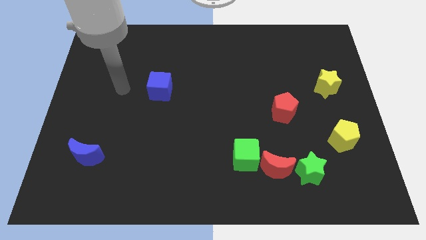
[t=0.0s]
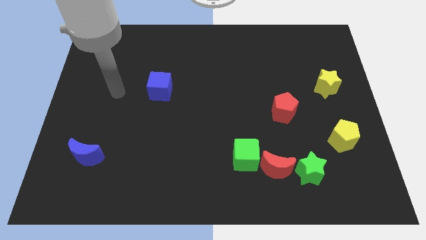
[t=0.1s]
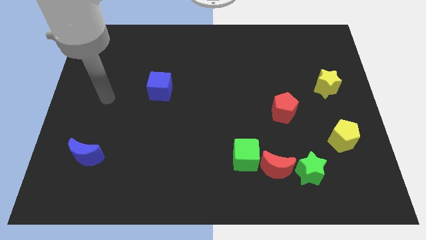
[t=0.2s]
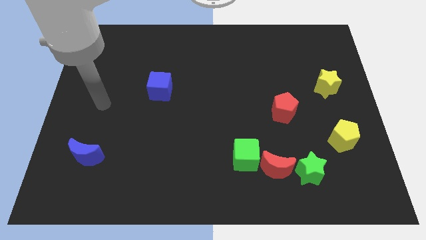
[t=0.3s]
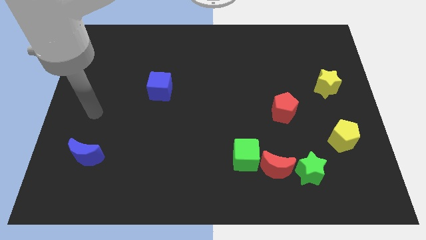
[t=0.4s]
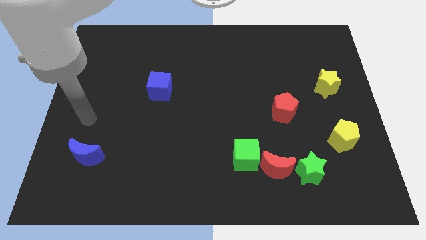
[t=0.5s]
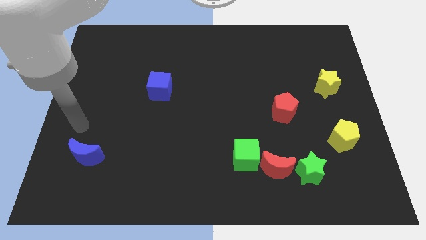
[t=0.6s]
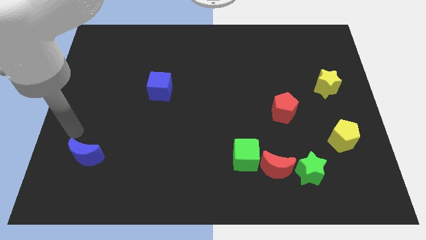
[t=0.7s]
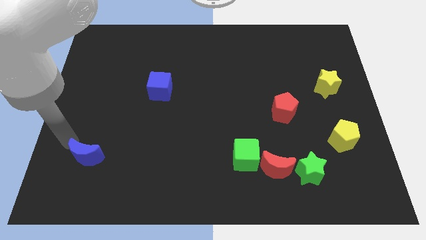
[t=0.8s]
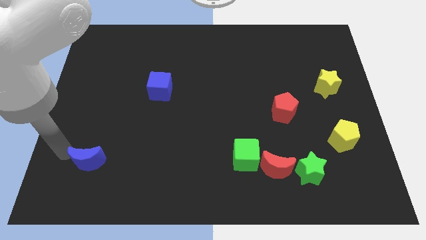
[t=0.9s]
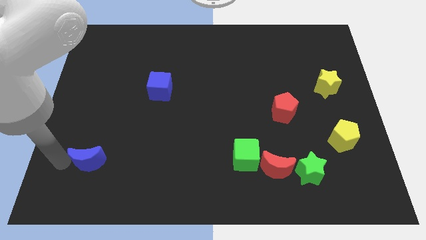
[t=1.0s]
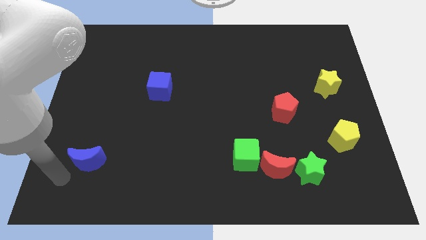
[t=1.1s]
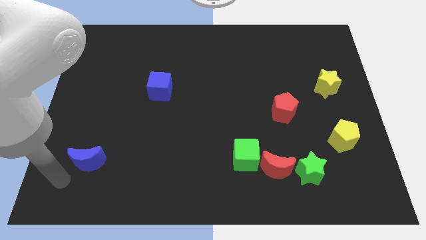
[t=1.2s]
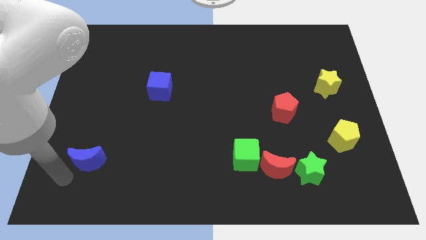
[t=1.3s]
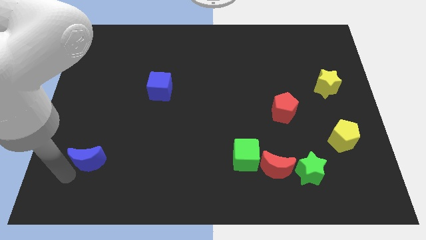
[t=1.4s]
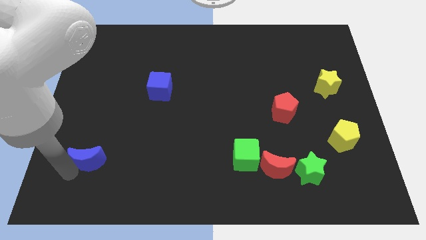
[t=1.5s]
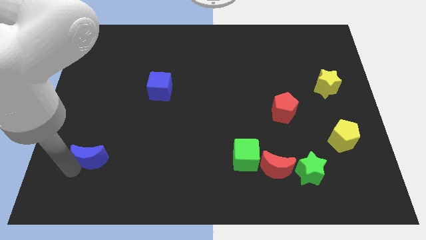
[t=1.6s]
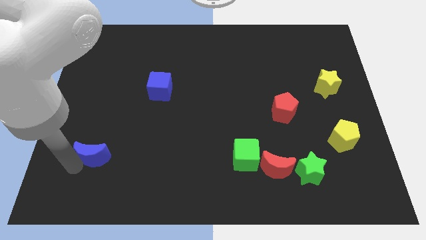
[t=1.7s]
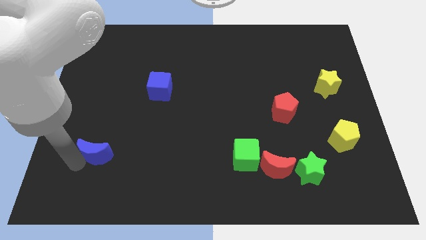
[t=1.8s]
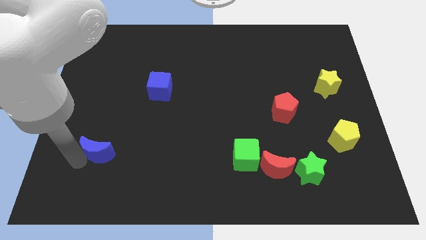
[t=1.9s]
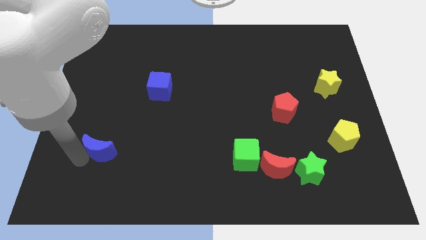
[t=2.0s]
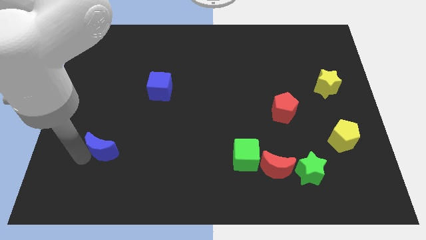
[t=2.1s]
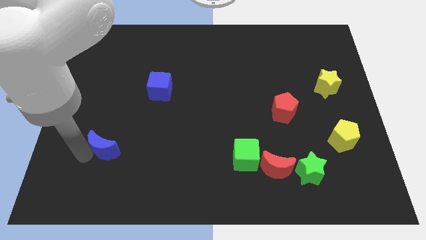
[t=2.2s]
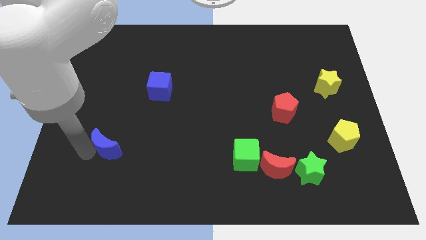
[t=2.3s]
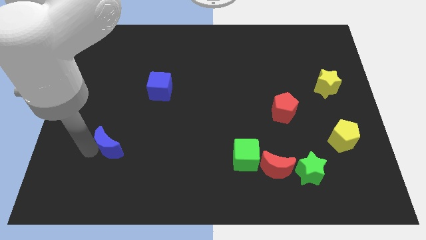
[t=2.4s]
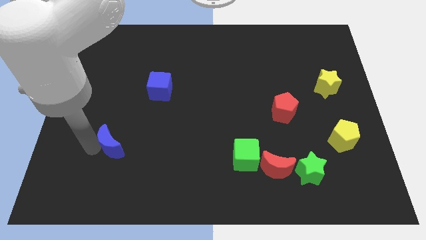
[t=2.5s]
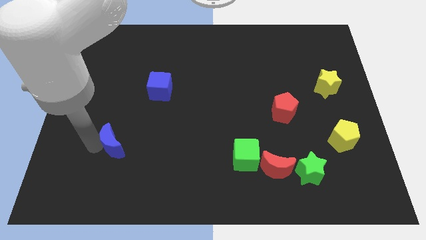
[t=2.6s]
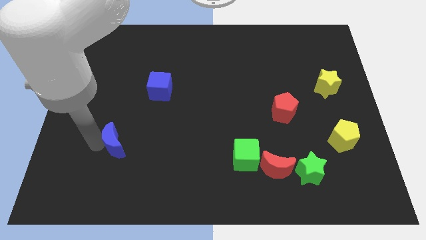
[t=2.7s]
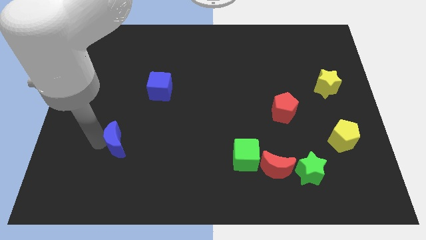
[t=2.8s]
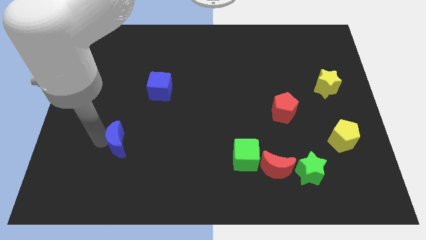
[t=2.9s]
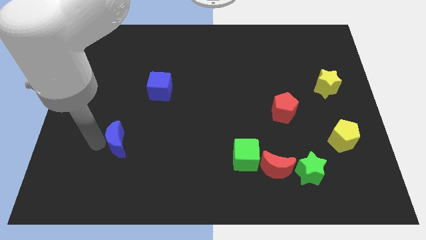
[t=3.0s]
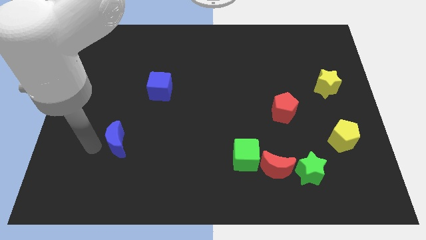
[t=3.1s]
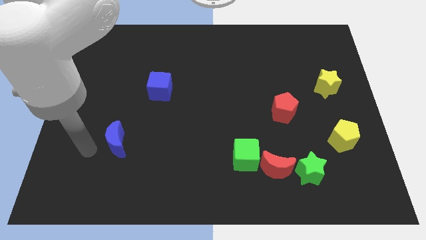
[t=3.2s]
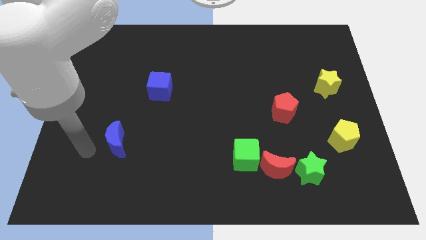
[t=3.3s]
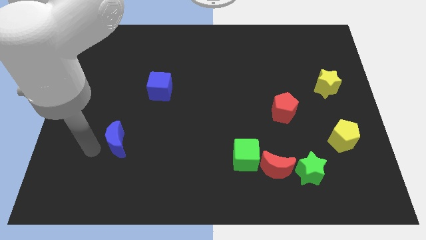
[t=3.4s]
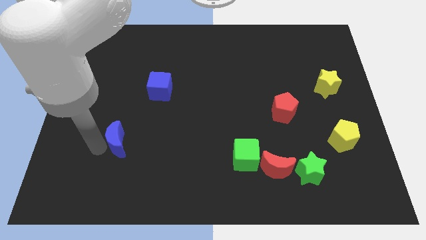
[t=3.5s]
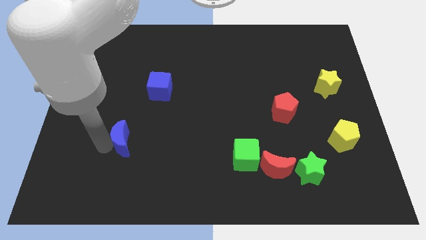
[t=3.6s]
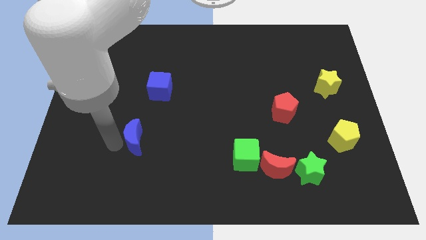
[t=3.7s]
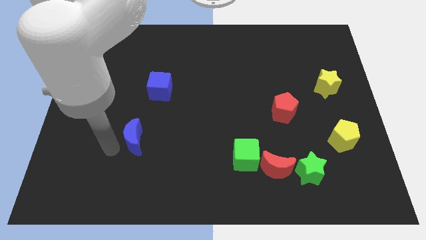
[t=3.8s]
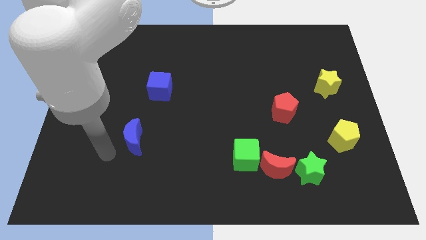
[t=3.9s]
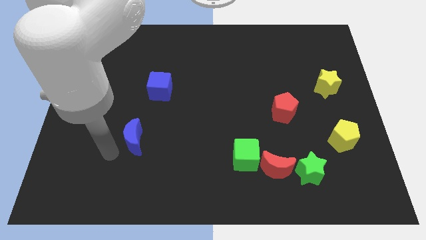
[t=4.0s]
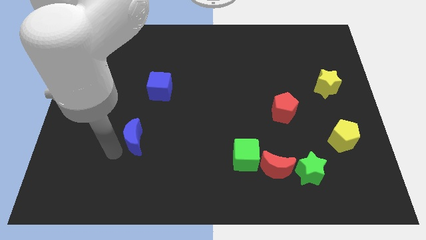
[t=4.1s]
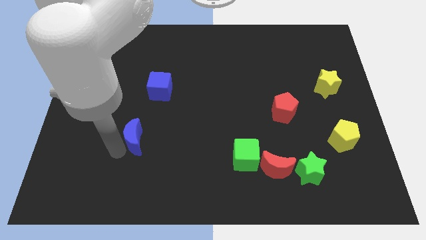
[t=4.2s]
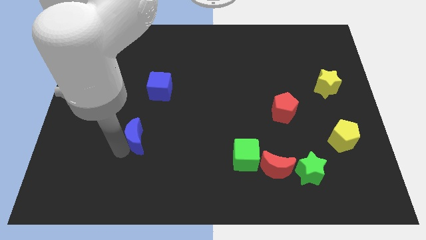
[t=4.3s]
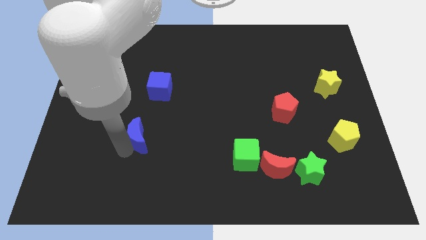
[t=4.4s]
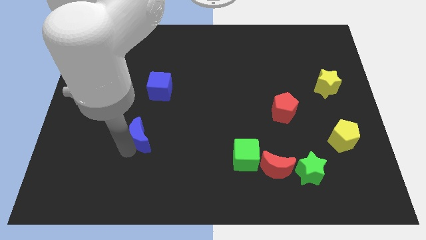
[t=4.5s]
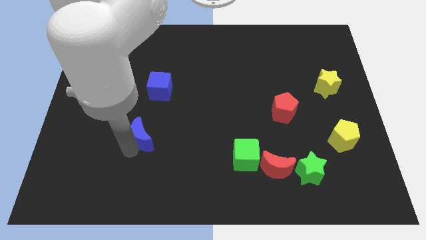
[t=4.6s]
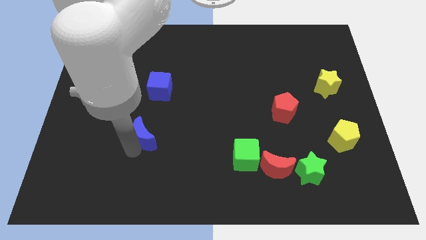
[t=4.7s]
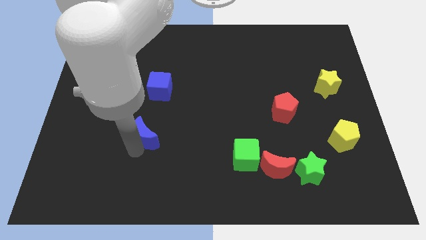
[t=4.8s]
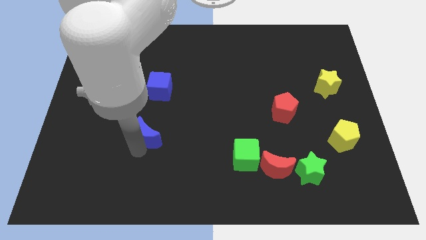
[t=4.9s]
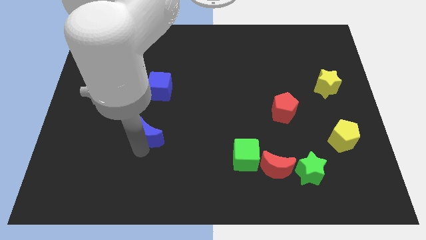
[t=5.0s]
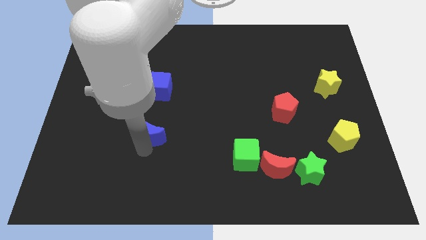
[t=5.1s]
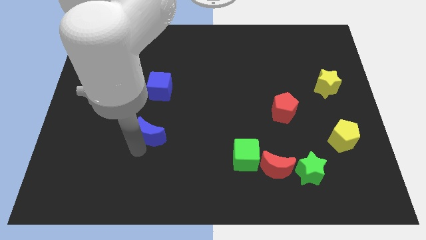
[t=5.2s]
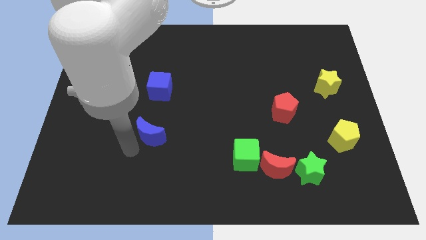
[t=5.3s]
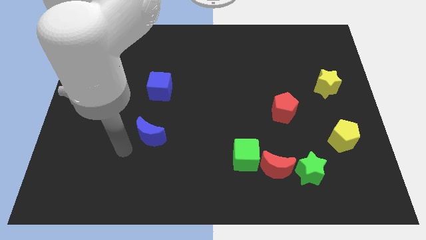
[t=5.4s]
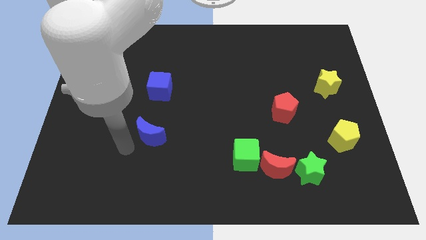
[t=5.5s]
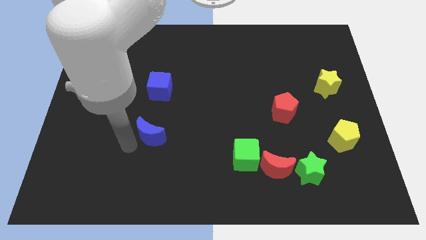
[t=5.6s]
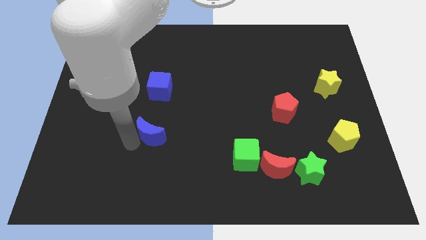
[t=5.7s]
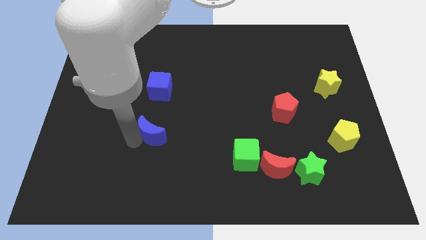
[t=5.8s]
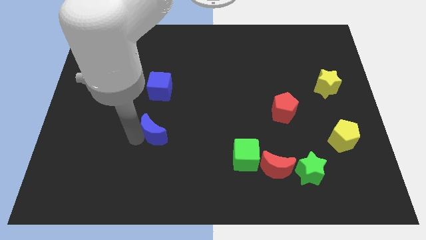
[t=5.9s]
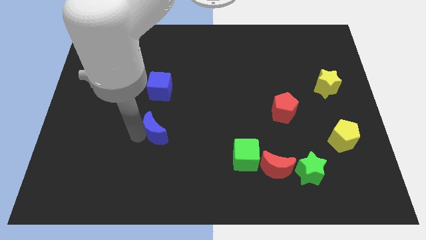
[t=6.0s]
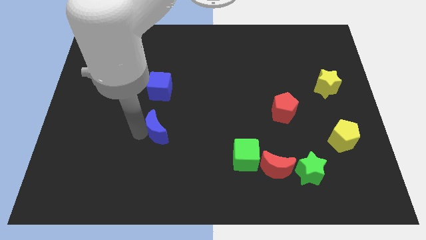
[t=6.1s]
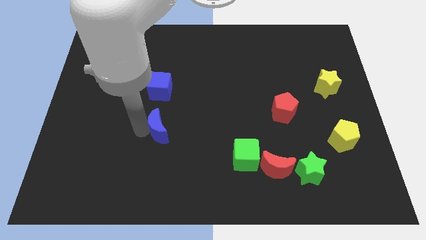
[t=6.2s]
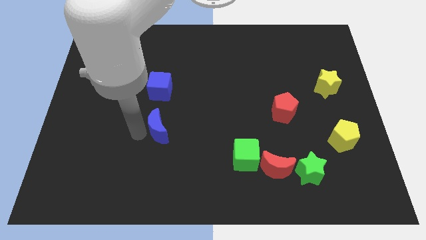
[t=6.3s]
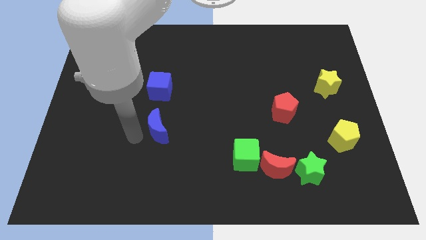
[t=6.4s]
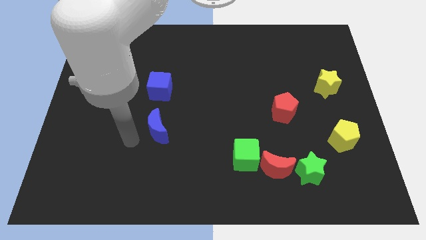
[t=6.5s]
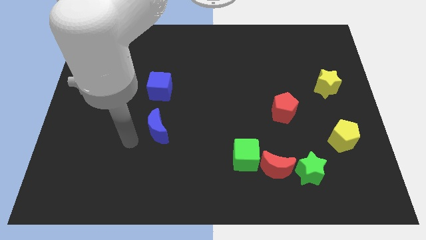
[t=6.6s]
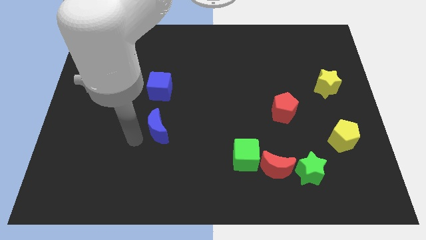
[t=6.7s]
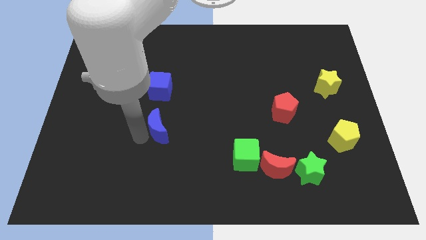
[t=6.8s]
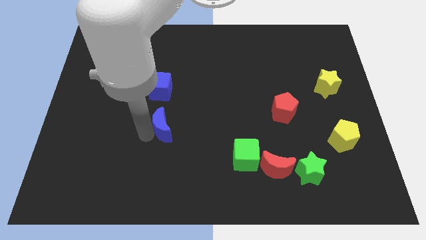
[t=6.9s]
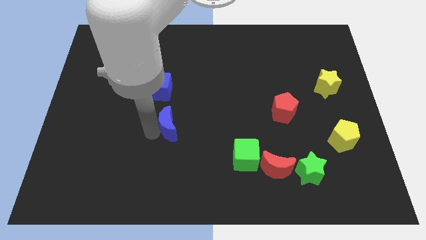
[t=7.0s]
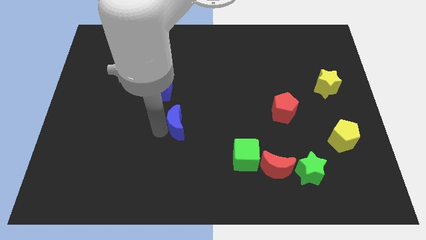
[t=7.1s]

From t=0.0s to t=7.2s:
move the blue moon to the center
